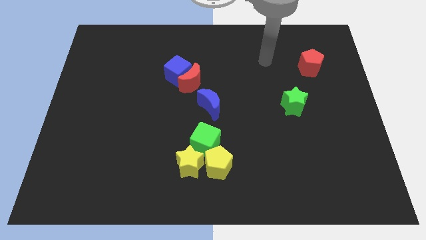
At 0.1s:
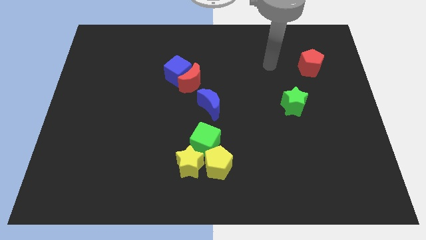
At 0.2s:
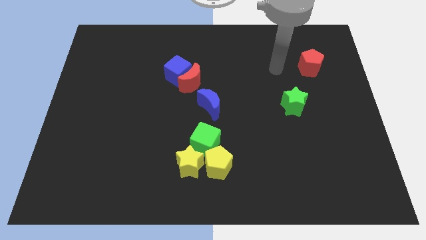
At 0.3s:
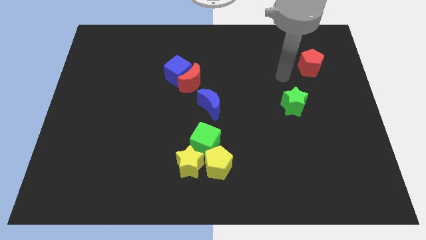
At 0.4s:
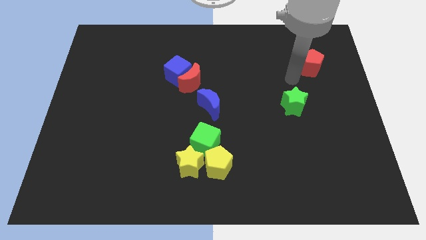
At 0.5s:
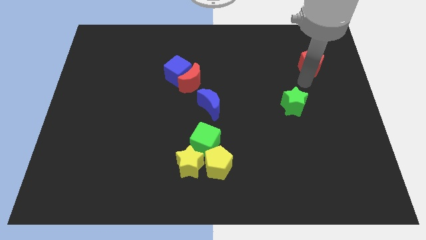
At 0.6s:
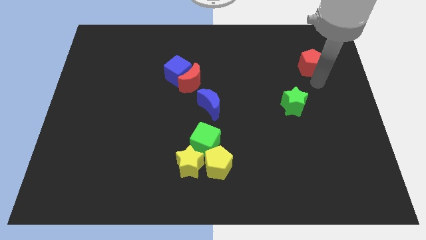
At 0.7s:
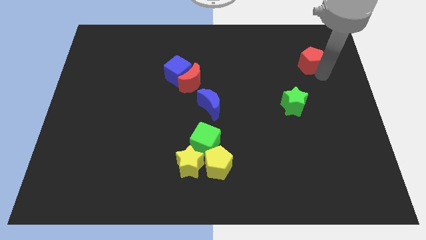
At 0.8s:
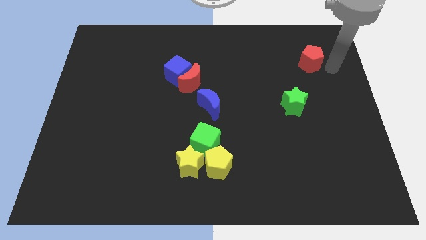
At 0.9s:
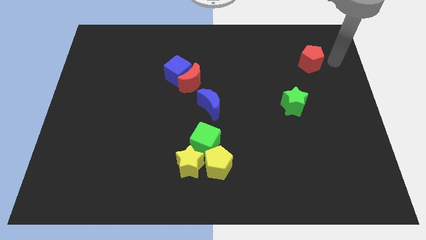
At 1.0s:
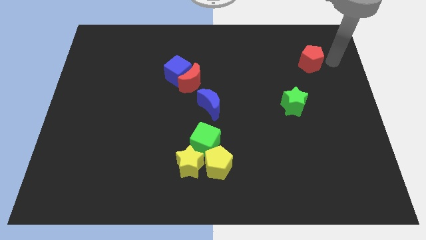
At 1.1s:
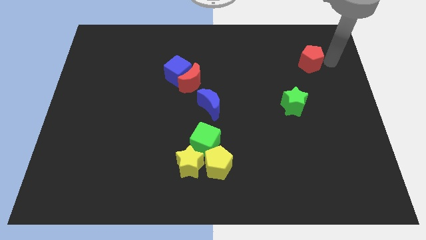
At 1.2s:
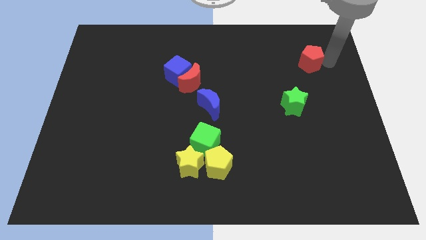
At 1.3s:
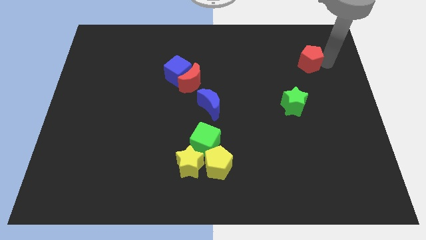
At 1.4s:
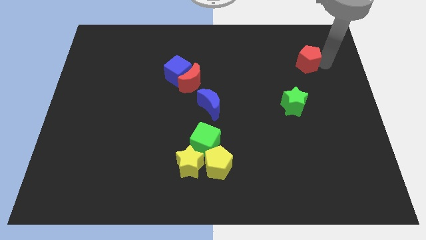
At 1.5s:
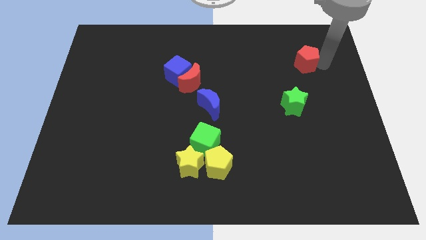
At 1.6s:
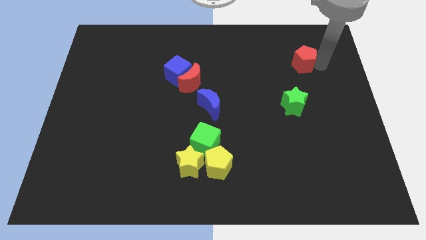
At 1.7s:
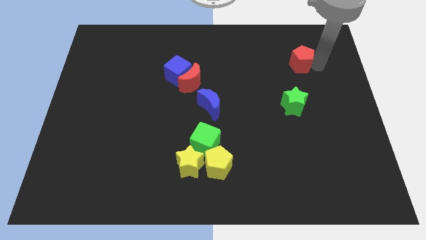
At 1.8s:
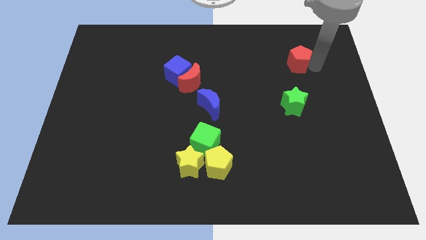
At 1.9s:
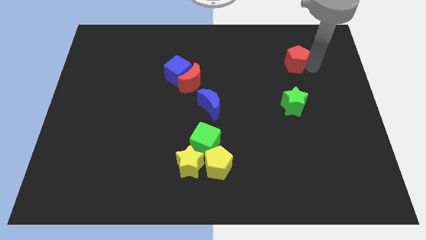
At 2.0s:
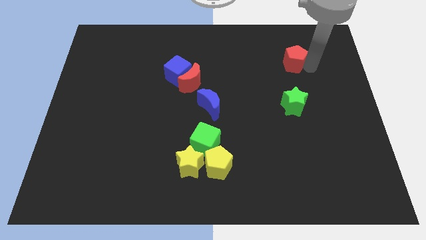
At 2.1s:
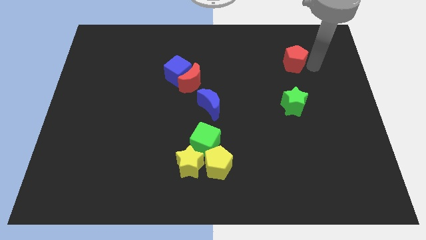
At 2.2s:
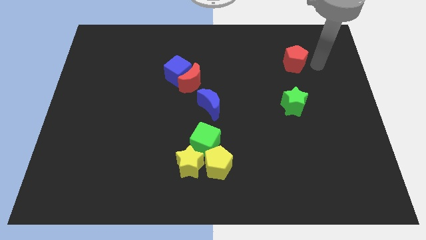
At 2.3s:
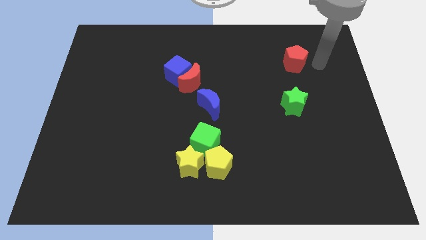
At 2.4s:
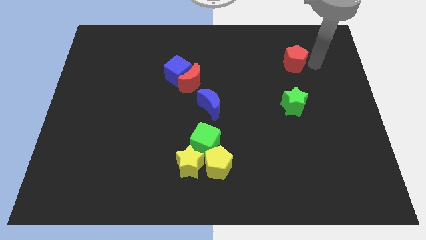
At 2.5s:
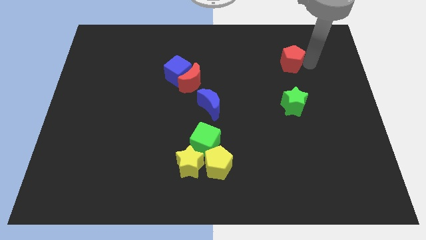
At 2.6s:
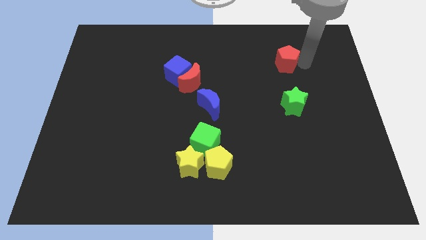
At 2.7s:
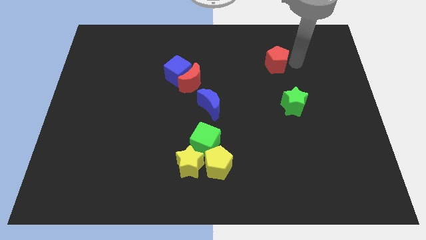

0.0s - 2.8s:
push the red pentagon slightly left

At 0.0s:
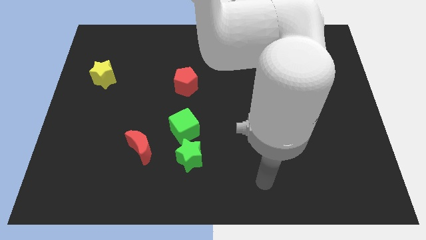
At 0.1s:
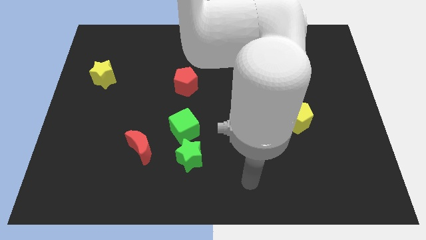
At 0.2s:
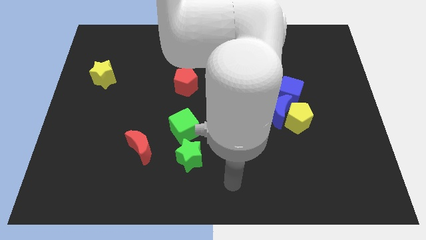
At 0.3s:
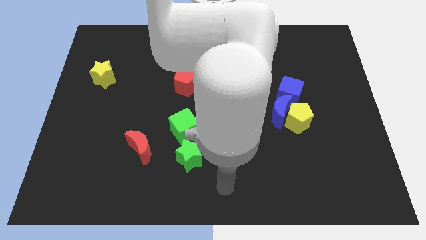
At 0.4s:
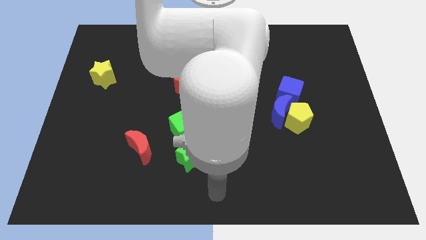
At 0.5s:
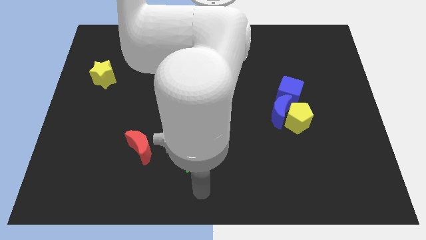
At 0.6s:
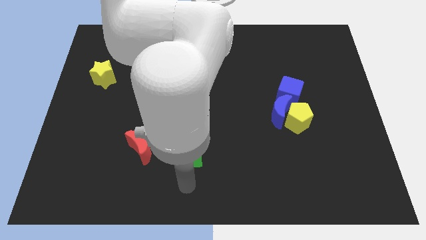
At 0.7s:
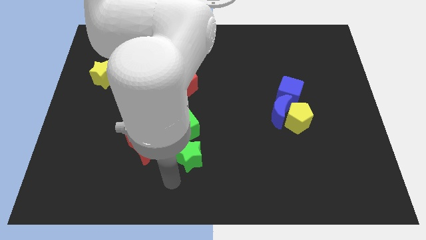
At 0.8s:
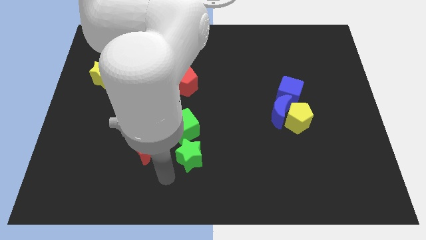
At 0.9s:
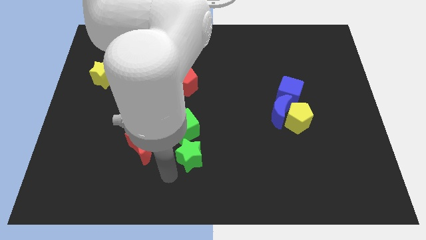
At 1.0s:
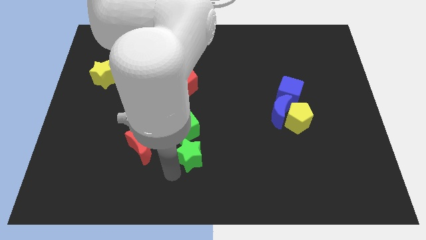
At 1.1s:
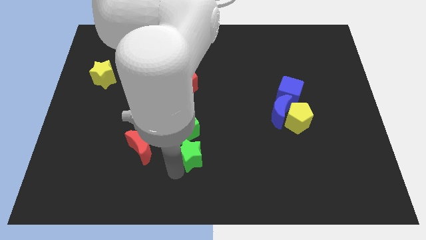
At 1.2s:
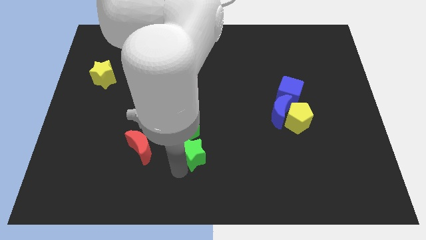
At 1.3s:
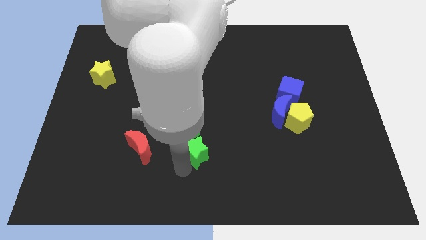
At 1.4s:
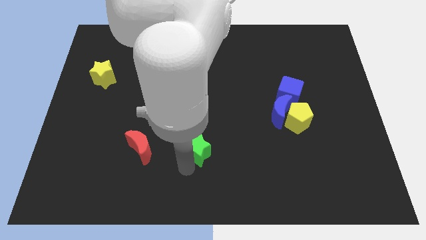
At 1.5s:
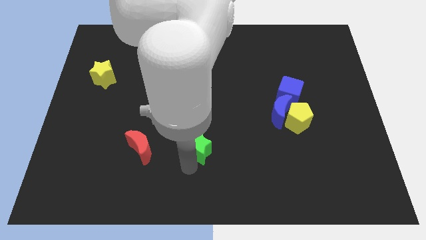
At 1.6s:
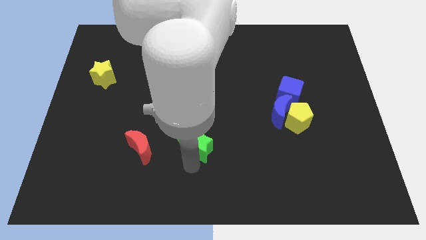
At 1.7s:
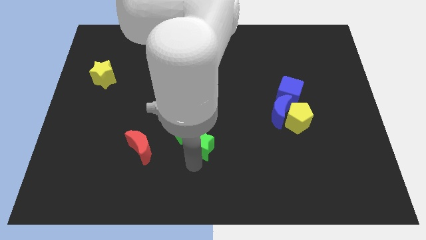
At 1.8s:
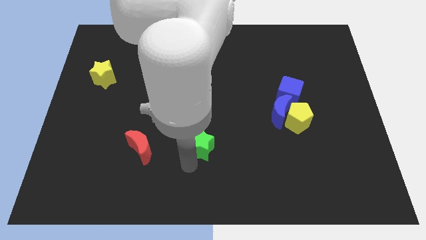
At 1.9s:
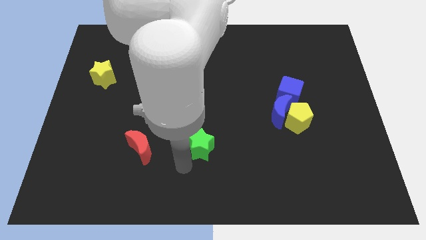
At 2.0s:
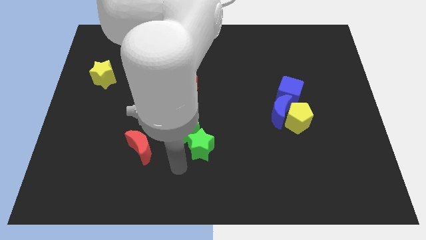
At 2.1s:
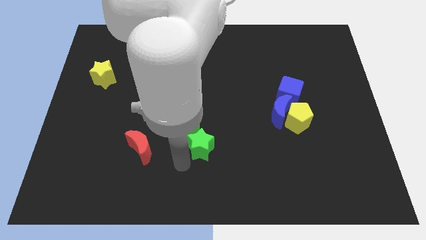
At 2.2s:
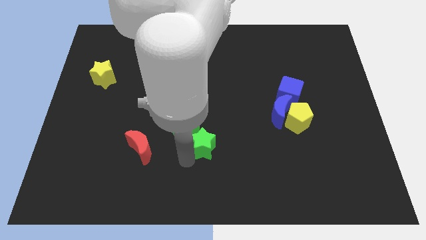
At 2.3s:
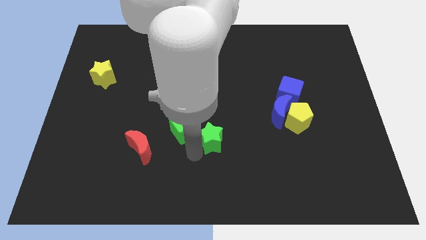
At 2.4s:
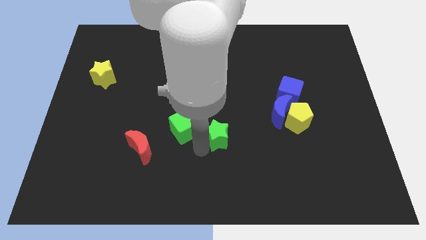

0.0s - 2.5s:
move the green star up and right somewhat

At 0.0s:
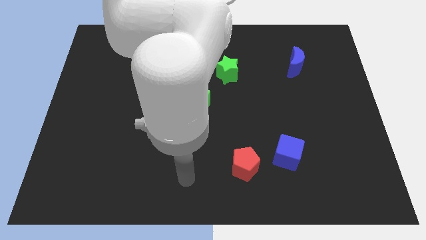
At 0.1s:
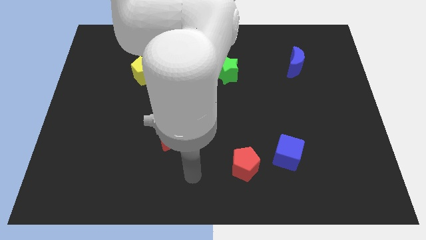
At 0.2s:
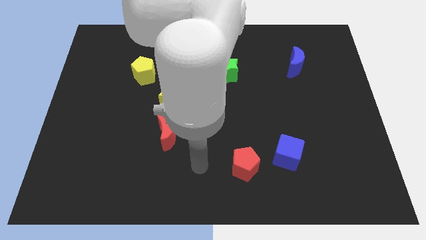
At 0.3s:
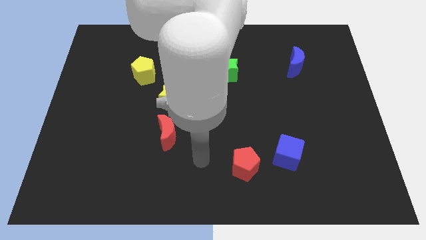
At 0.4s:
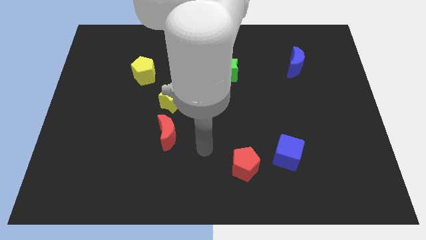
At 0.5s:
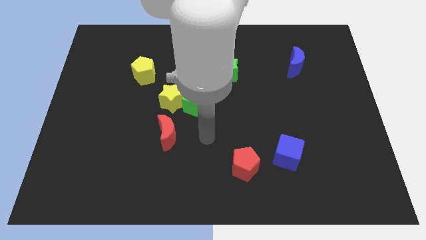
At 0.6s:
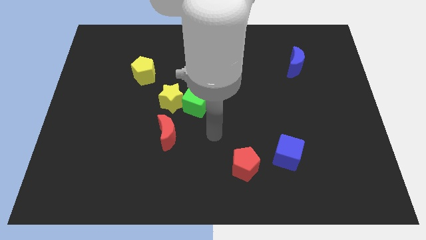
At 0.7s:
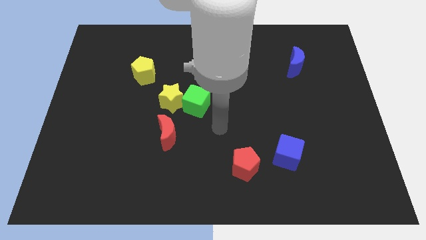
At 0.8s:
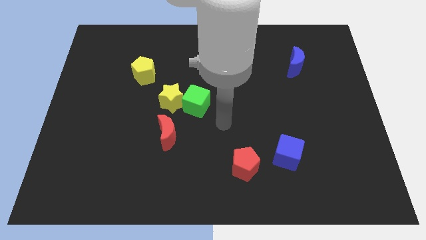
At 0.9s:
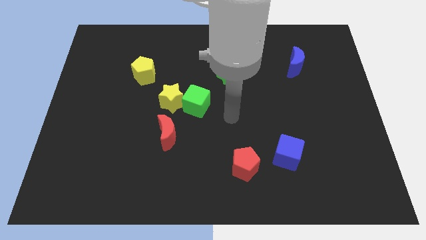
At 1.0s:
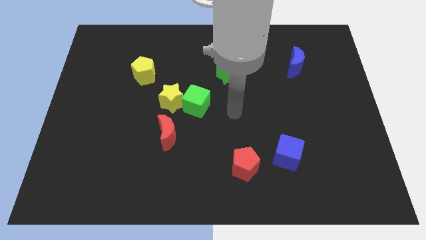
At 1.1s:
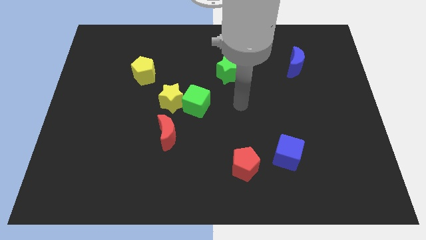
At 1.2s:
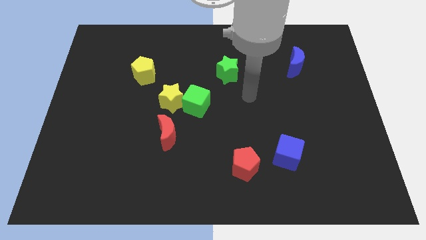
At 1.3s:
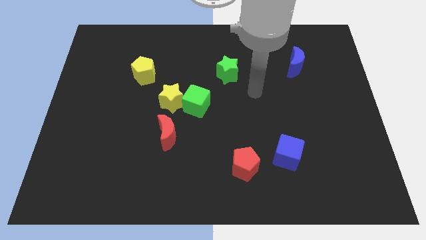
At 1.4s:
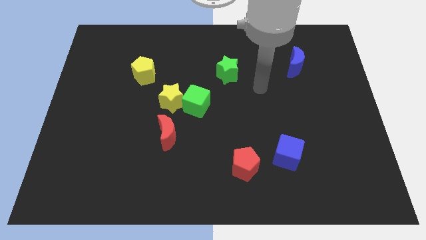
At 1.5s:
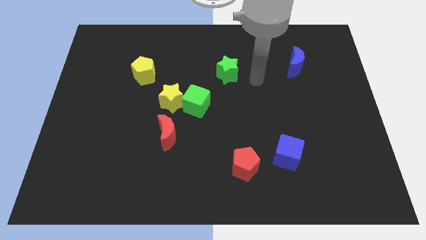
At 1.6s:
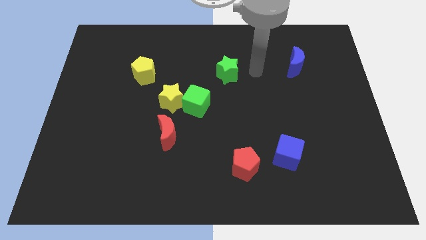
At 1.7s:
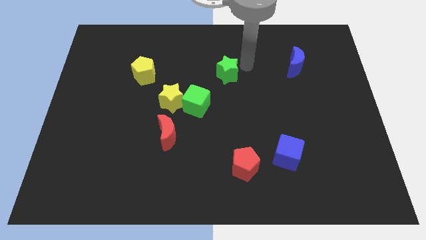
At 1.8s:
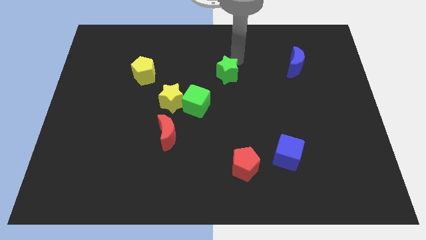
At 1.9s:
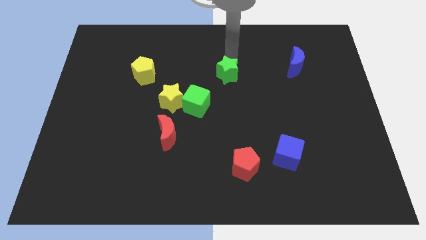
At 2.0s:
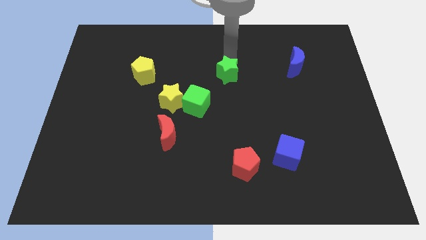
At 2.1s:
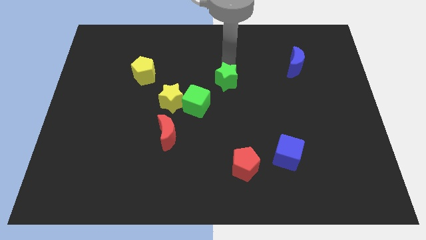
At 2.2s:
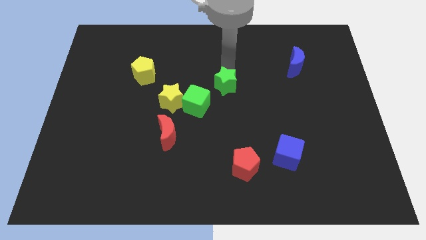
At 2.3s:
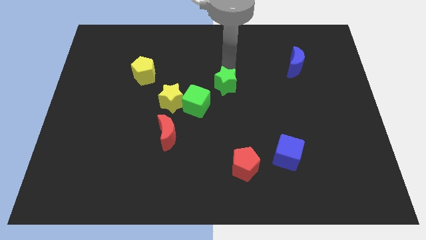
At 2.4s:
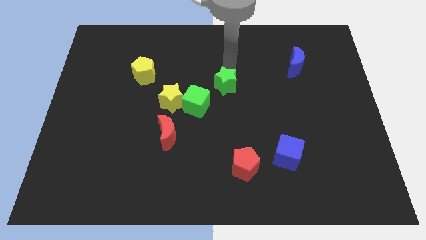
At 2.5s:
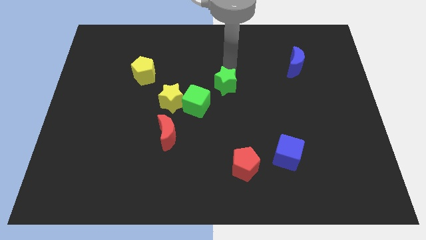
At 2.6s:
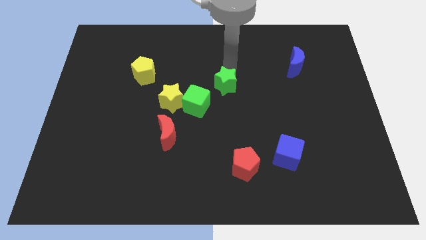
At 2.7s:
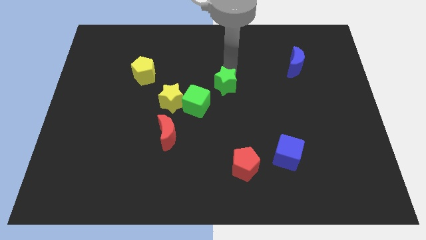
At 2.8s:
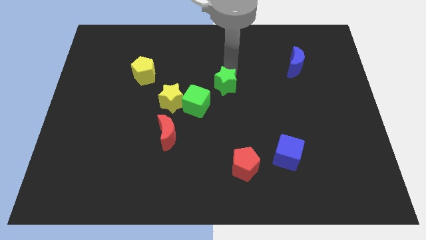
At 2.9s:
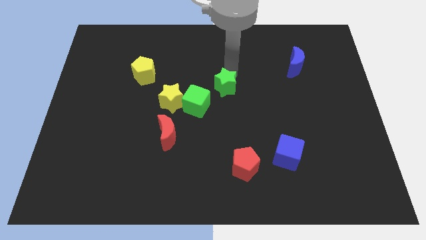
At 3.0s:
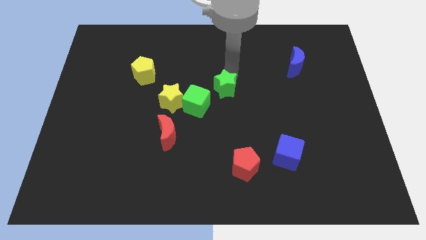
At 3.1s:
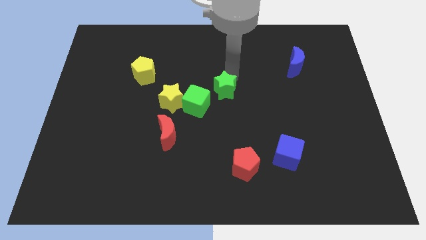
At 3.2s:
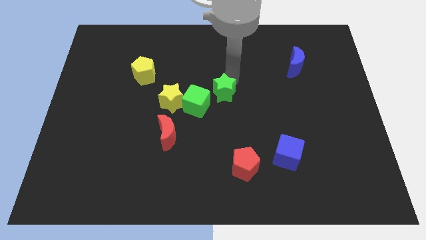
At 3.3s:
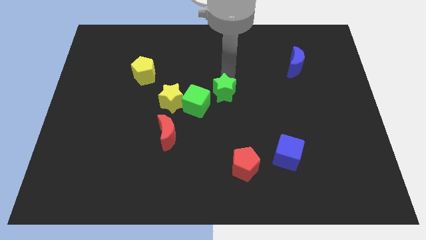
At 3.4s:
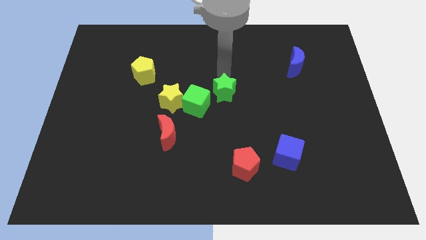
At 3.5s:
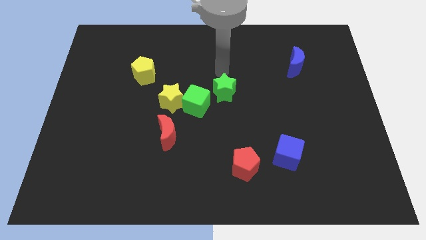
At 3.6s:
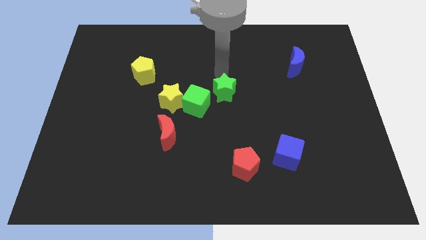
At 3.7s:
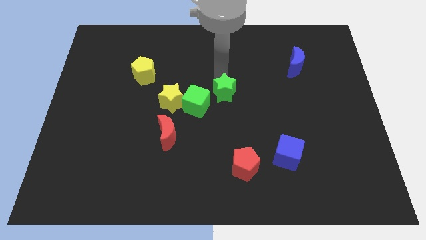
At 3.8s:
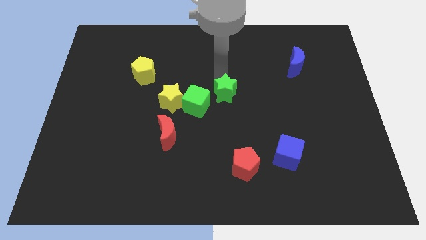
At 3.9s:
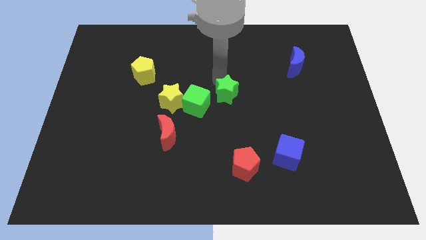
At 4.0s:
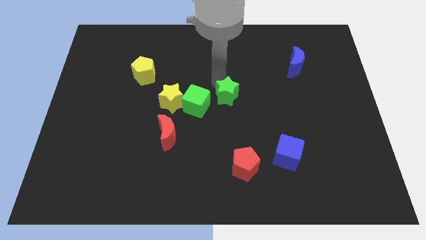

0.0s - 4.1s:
slightly move the green star downwards
